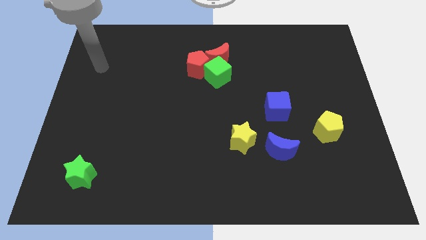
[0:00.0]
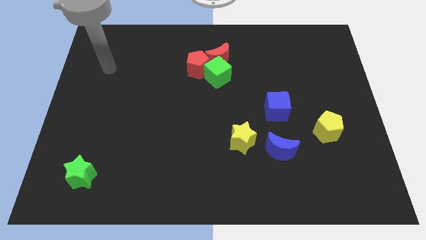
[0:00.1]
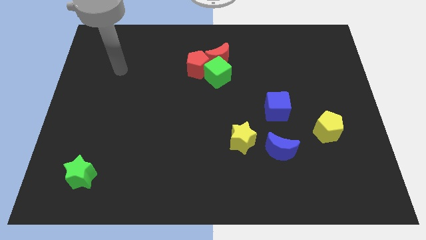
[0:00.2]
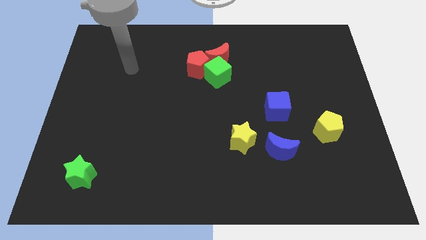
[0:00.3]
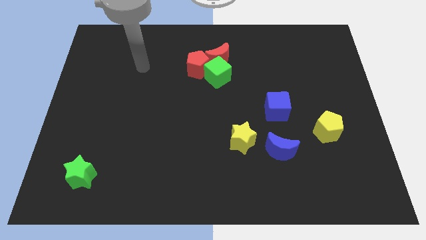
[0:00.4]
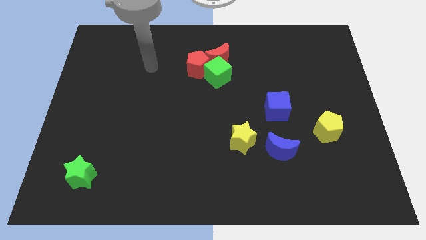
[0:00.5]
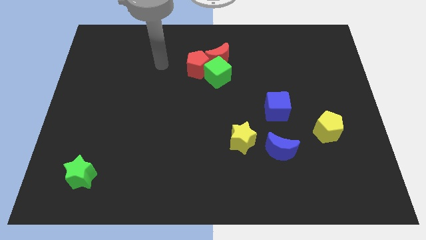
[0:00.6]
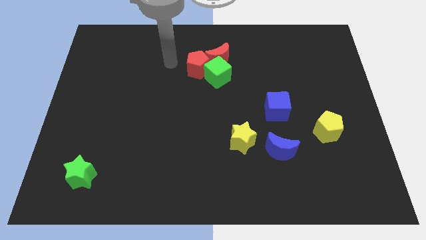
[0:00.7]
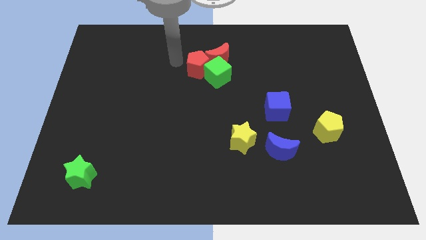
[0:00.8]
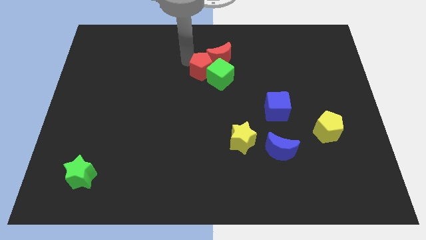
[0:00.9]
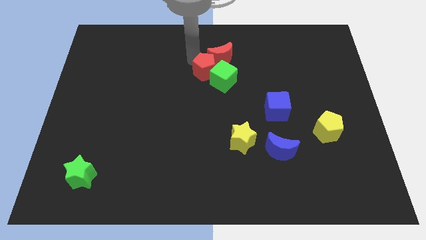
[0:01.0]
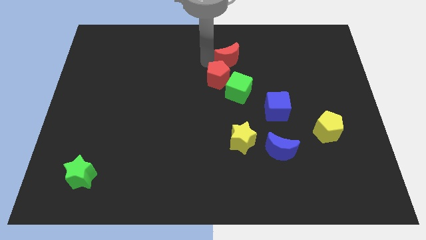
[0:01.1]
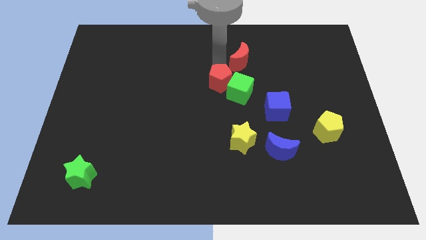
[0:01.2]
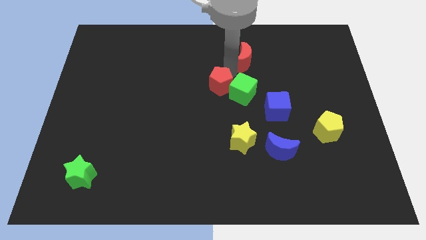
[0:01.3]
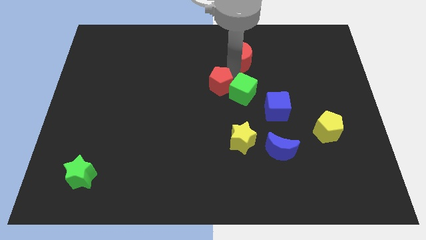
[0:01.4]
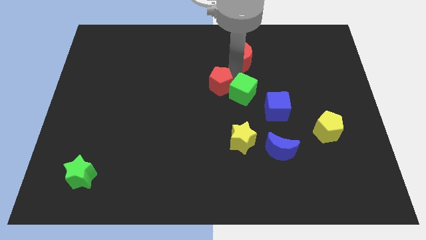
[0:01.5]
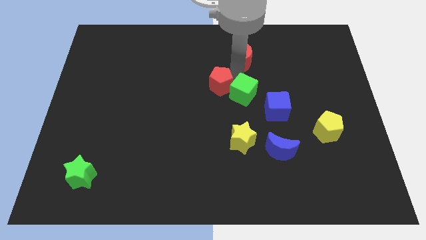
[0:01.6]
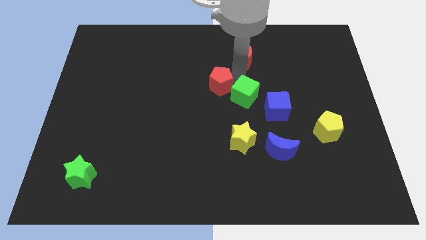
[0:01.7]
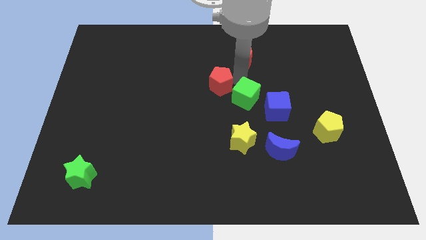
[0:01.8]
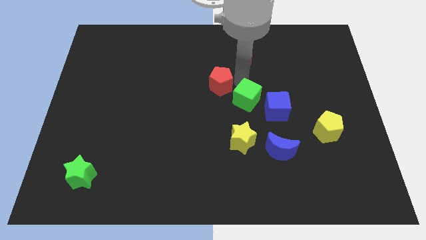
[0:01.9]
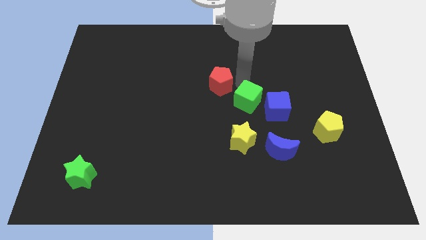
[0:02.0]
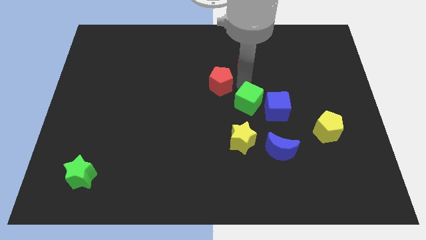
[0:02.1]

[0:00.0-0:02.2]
pull the green cube apart from the red moon and red pentagon

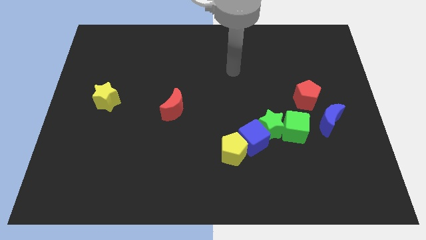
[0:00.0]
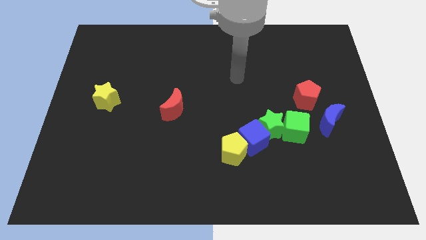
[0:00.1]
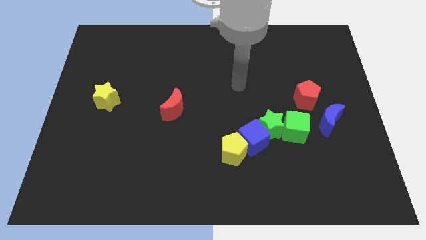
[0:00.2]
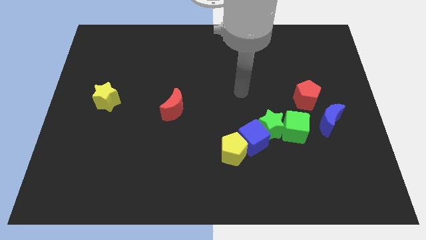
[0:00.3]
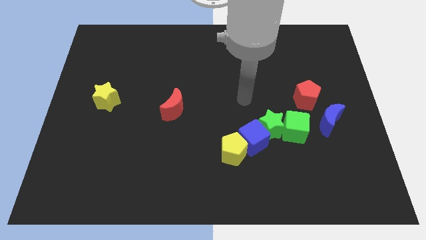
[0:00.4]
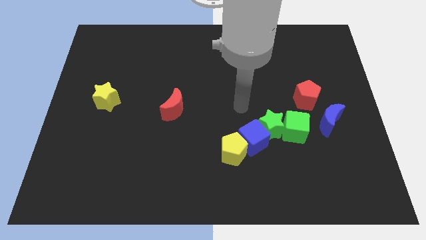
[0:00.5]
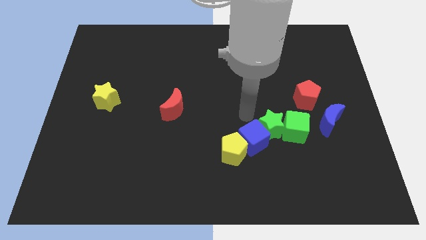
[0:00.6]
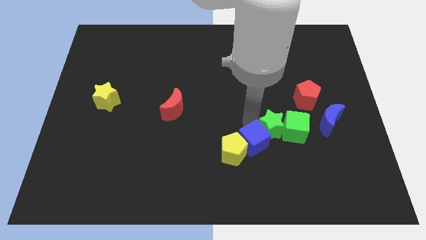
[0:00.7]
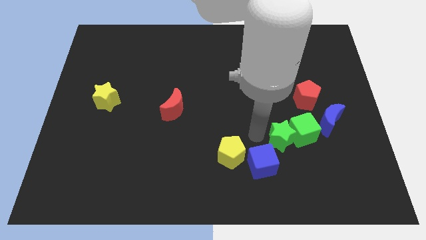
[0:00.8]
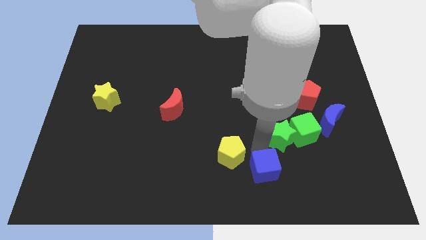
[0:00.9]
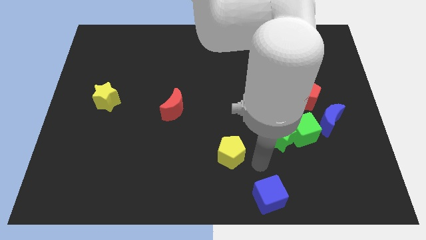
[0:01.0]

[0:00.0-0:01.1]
move the yellow pentagon away from the blue cube

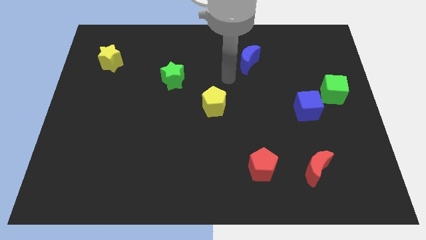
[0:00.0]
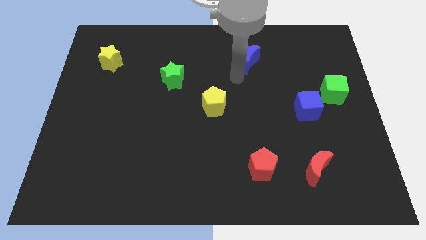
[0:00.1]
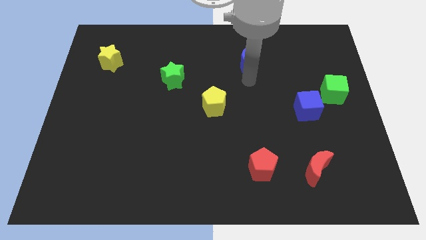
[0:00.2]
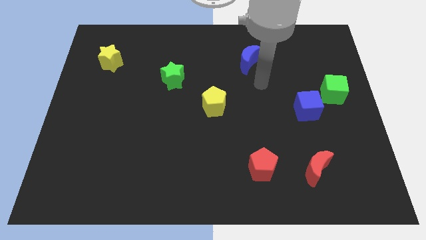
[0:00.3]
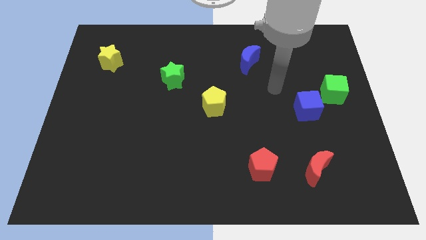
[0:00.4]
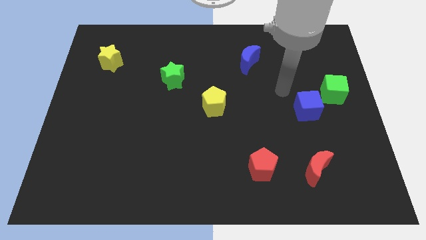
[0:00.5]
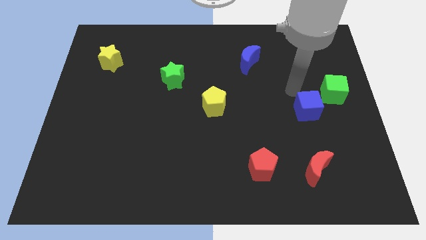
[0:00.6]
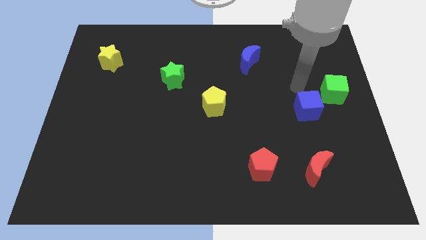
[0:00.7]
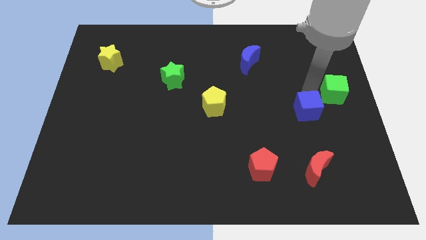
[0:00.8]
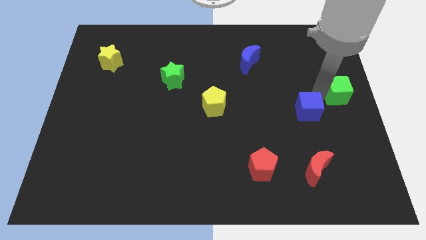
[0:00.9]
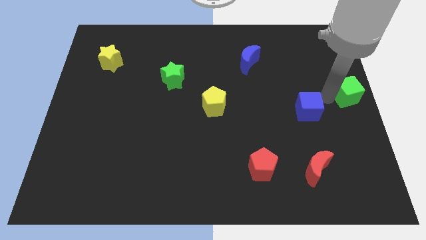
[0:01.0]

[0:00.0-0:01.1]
pull the blue cube apart from the green cube

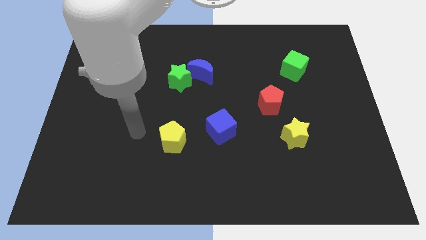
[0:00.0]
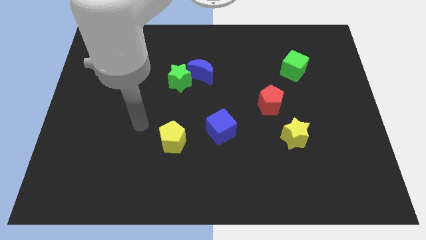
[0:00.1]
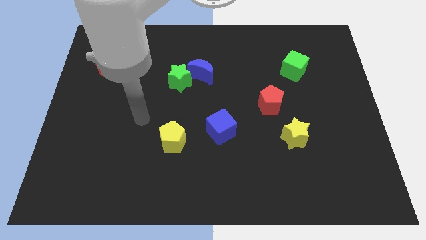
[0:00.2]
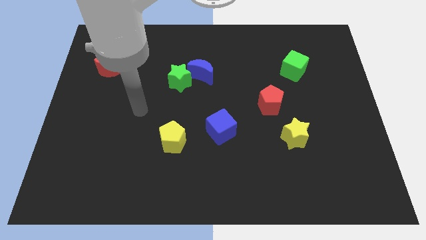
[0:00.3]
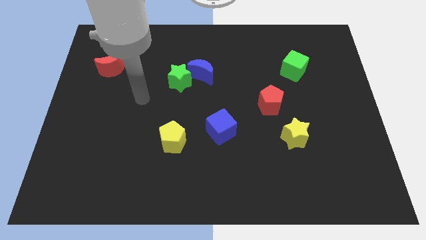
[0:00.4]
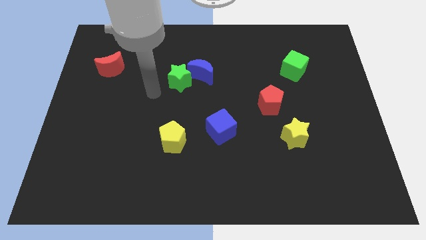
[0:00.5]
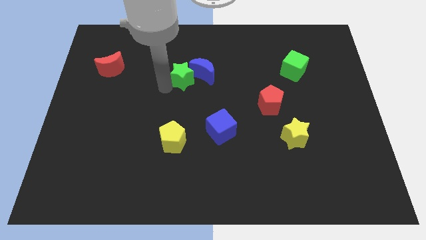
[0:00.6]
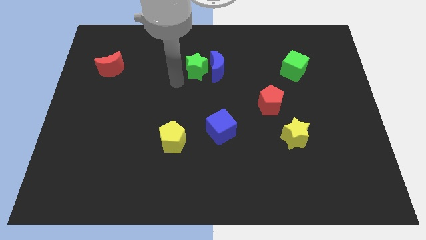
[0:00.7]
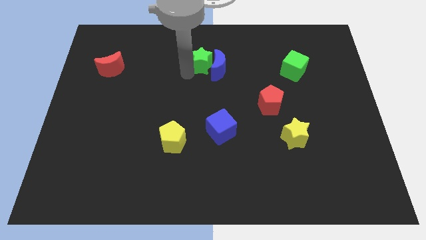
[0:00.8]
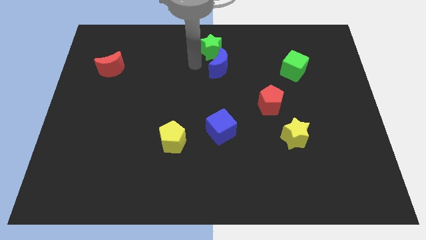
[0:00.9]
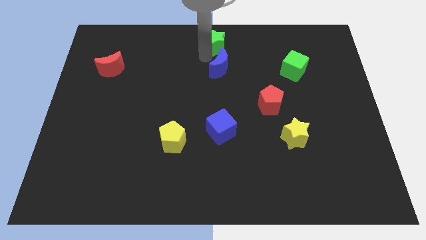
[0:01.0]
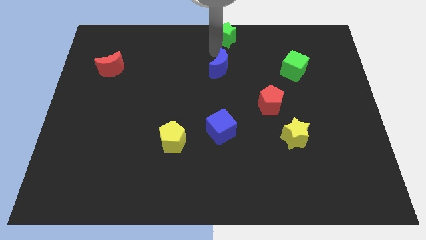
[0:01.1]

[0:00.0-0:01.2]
pull the blue moon apart from the green star

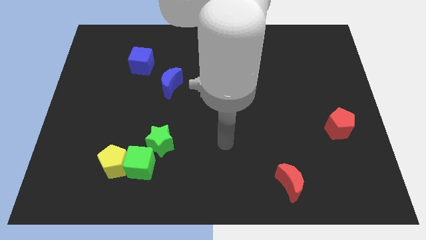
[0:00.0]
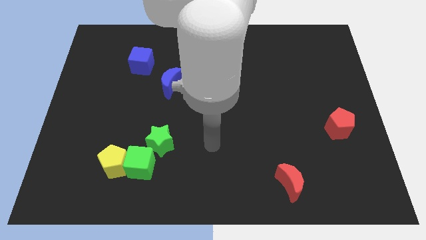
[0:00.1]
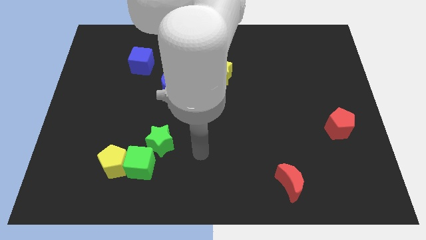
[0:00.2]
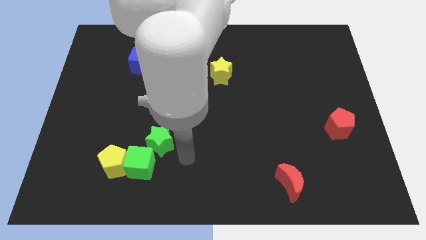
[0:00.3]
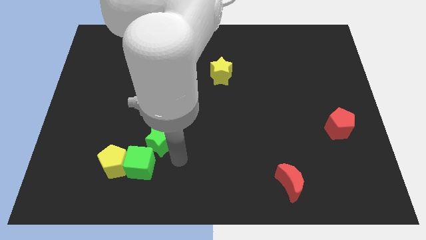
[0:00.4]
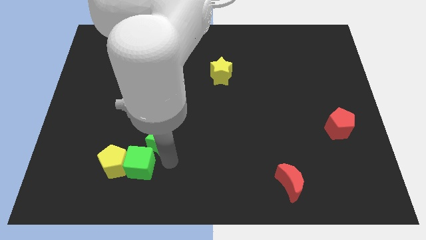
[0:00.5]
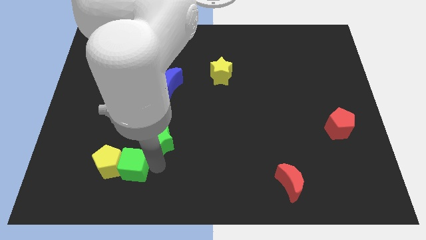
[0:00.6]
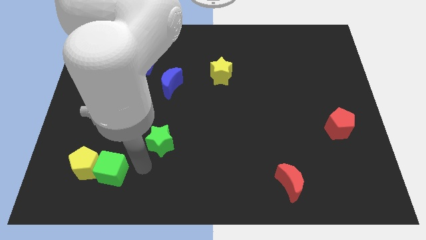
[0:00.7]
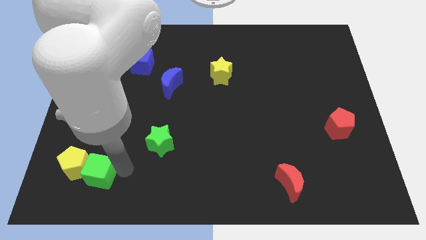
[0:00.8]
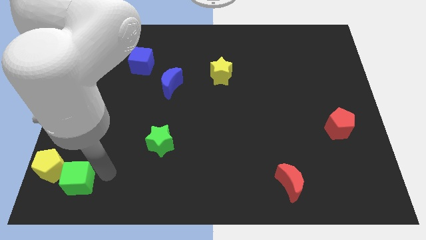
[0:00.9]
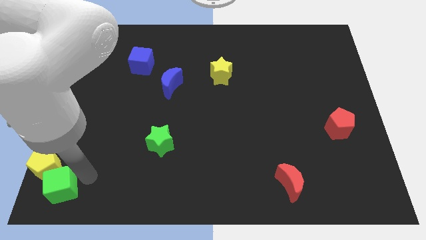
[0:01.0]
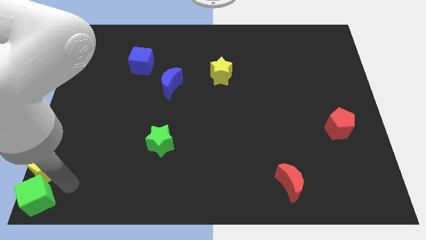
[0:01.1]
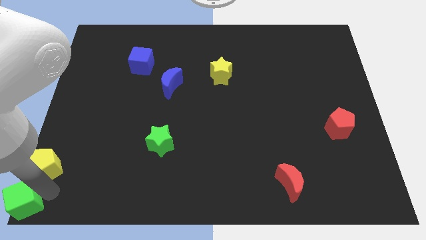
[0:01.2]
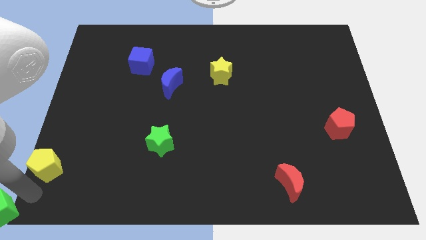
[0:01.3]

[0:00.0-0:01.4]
separate the yellow pentagon from the green cube

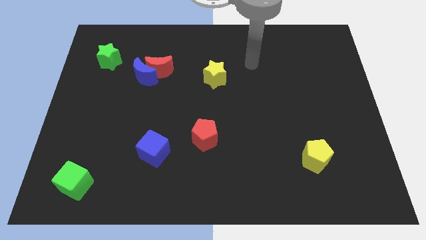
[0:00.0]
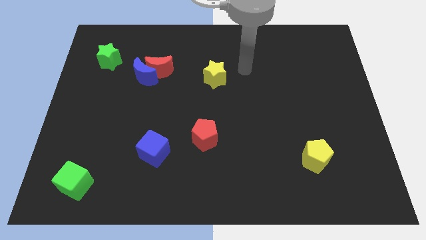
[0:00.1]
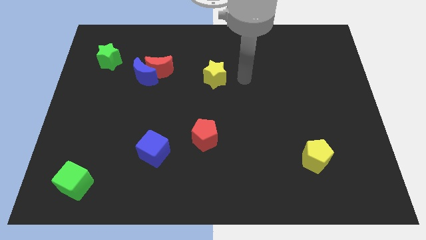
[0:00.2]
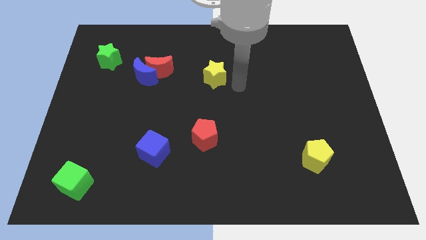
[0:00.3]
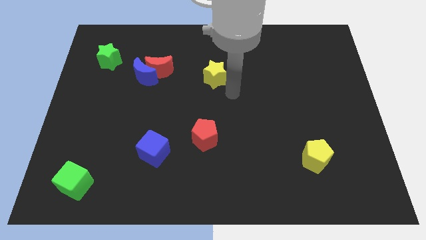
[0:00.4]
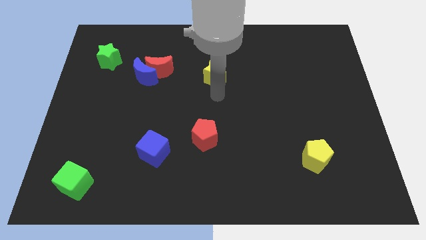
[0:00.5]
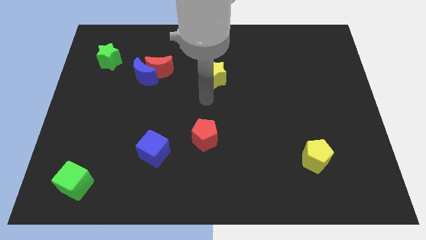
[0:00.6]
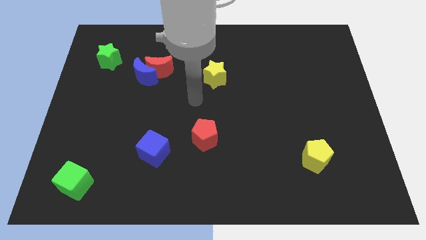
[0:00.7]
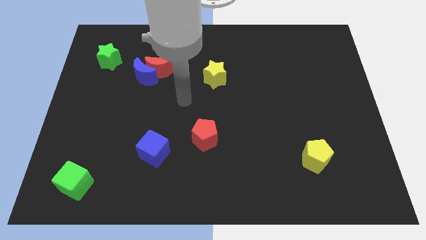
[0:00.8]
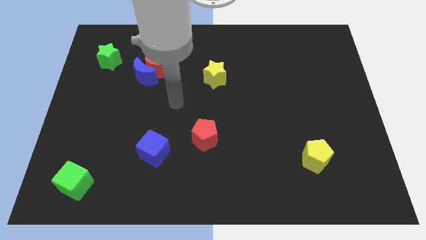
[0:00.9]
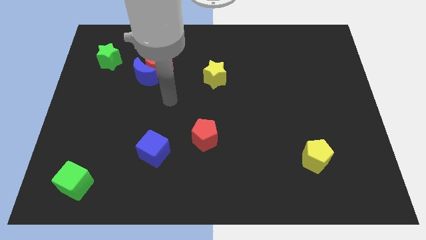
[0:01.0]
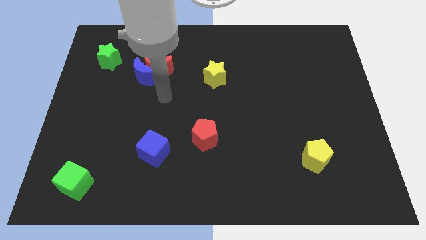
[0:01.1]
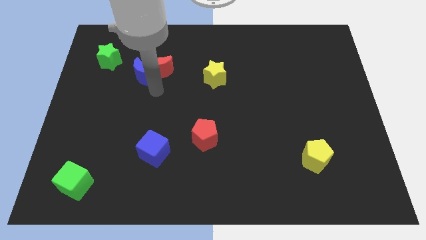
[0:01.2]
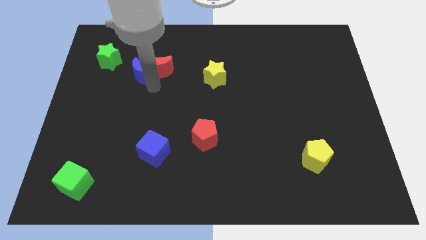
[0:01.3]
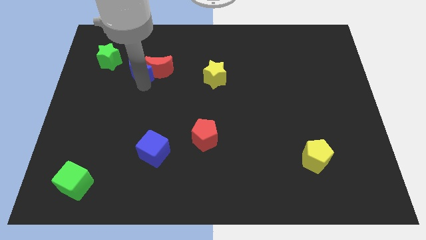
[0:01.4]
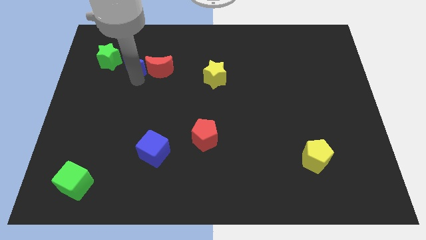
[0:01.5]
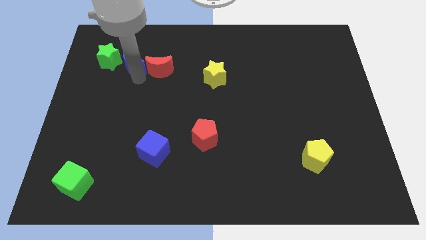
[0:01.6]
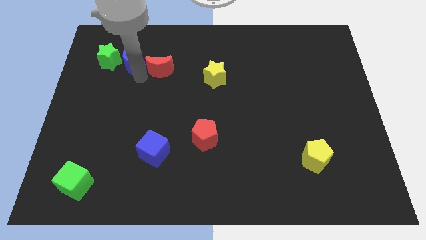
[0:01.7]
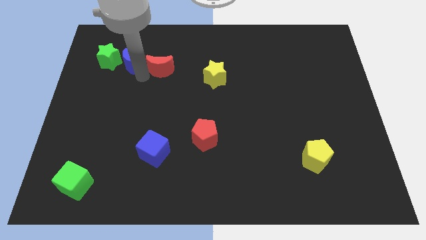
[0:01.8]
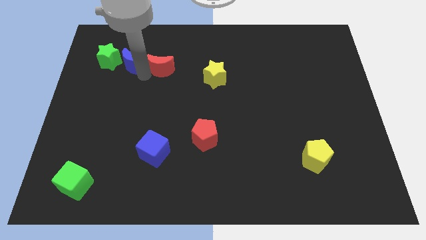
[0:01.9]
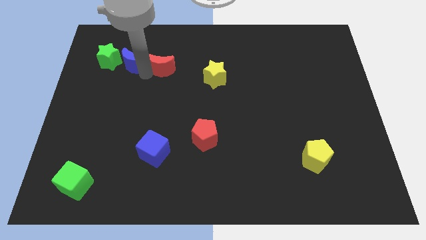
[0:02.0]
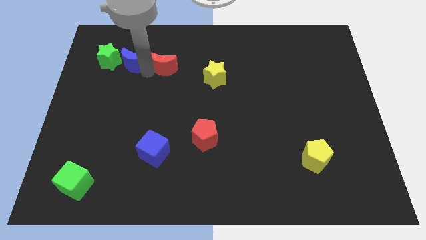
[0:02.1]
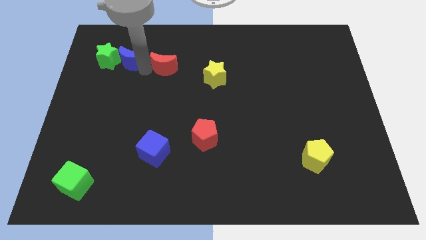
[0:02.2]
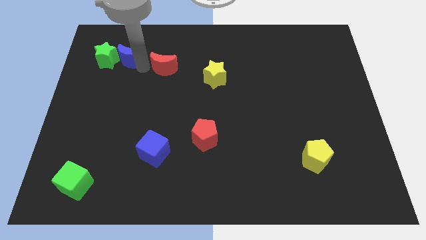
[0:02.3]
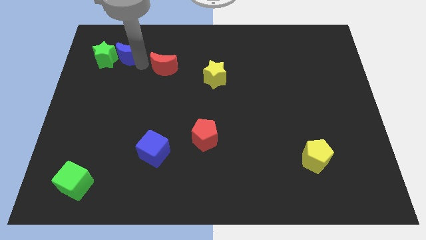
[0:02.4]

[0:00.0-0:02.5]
move the red moon away from the blue moon

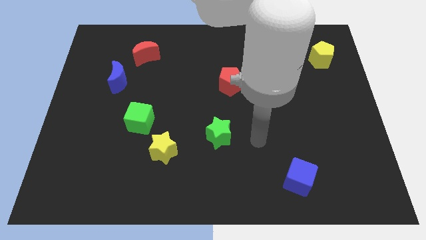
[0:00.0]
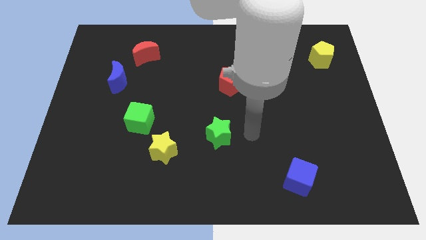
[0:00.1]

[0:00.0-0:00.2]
move the green cube away from the yellow star
